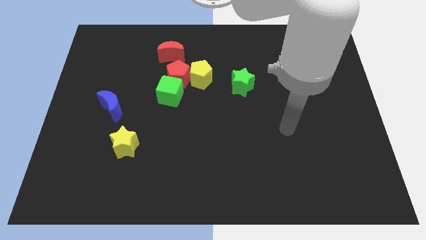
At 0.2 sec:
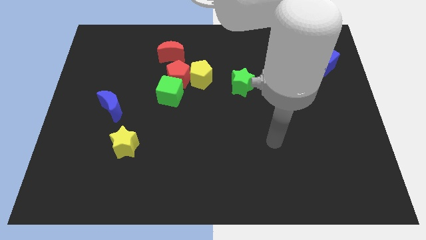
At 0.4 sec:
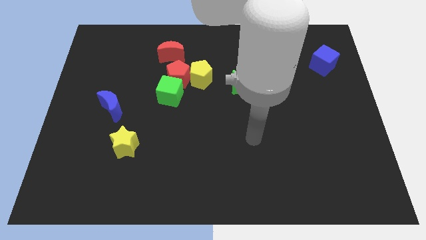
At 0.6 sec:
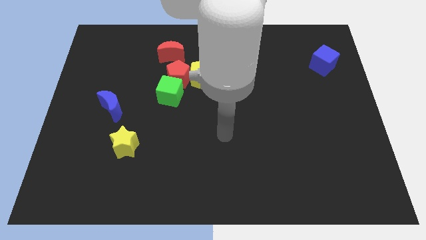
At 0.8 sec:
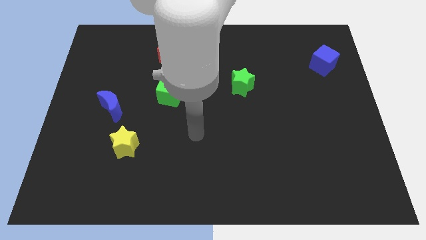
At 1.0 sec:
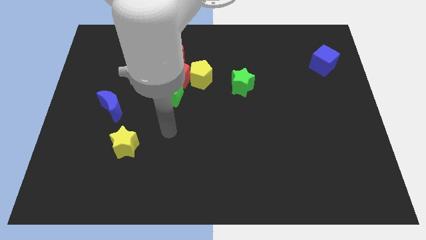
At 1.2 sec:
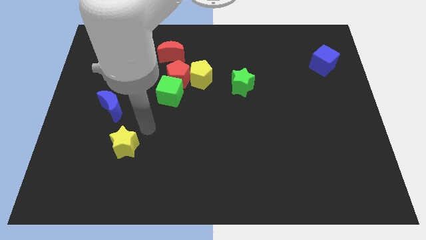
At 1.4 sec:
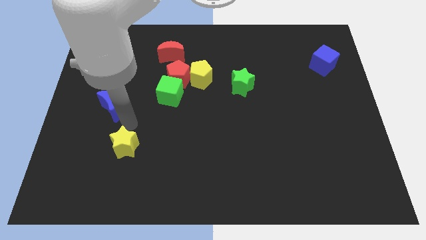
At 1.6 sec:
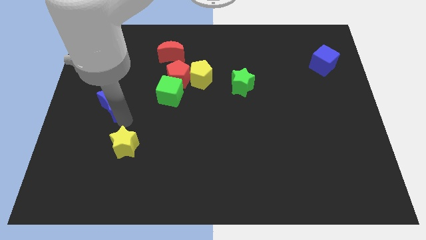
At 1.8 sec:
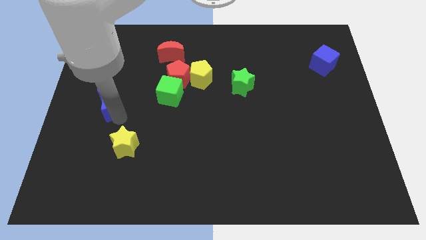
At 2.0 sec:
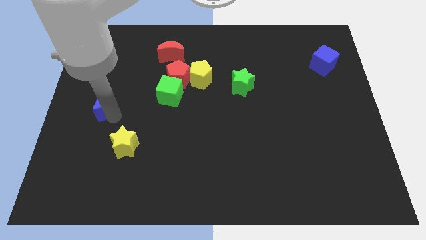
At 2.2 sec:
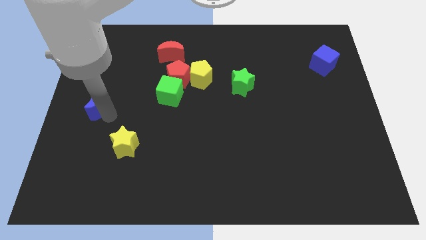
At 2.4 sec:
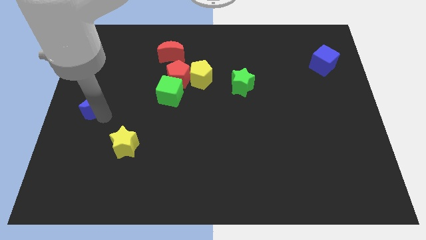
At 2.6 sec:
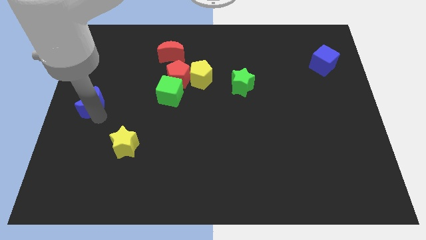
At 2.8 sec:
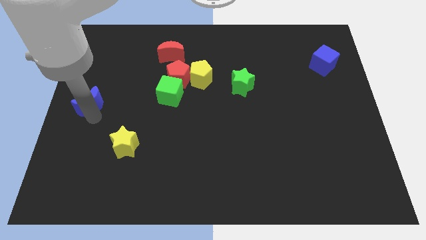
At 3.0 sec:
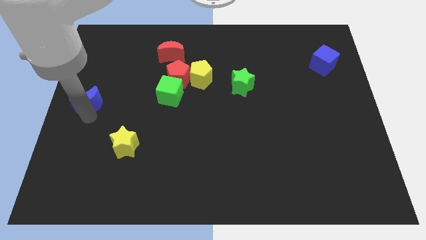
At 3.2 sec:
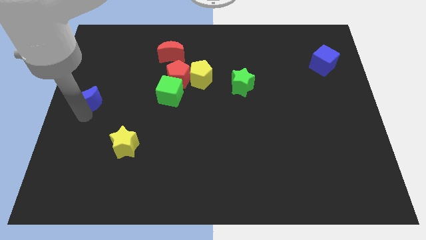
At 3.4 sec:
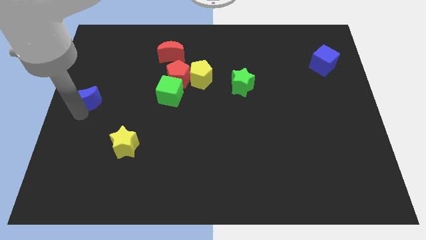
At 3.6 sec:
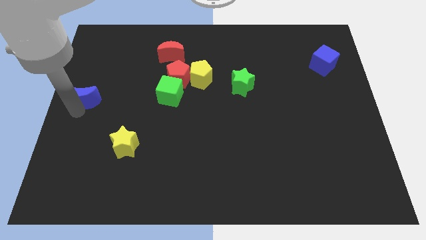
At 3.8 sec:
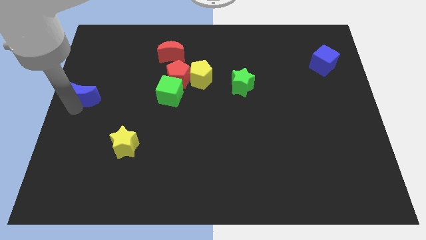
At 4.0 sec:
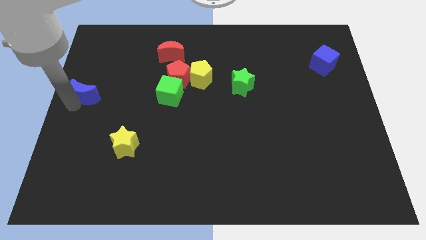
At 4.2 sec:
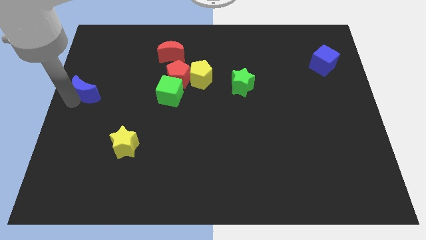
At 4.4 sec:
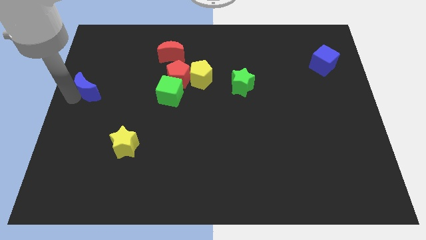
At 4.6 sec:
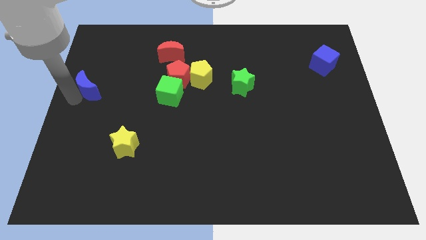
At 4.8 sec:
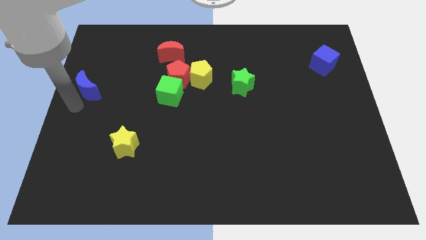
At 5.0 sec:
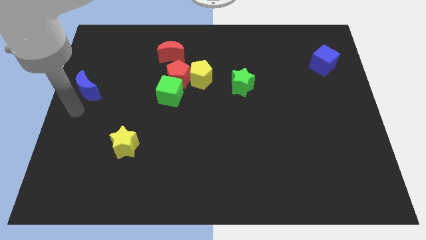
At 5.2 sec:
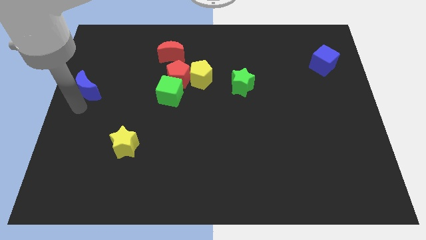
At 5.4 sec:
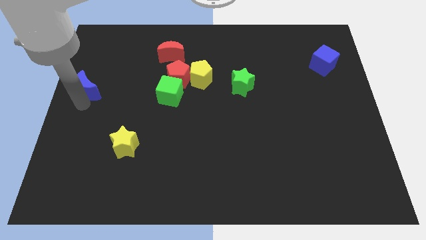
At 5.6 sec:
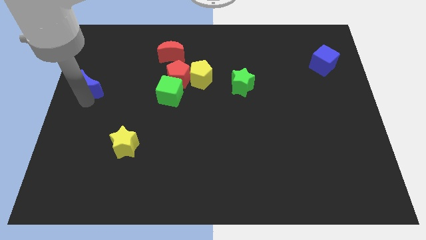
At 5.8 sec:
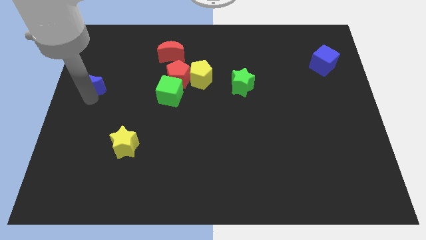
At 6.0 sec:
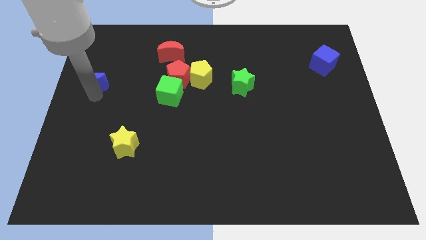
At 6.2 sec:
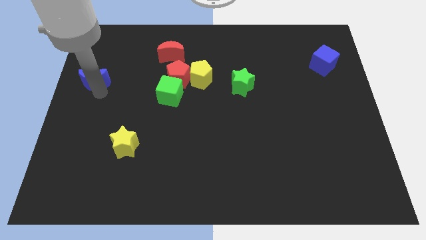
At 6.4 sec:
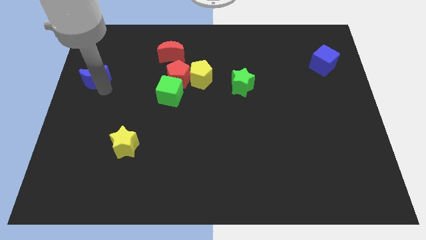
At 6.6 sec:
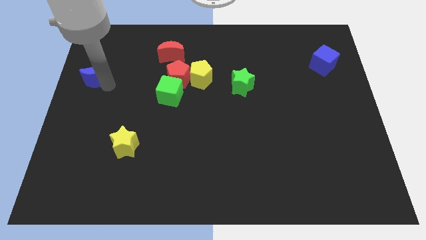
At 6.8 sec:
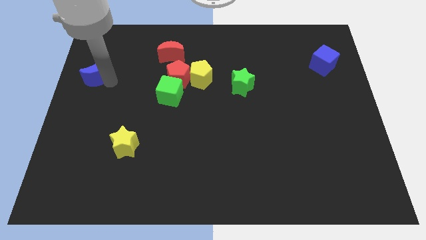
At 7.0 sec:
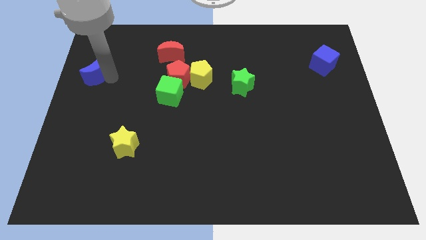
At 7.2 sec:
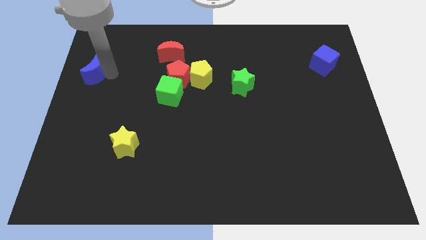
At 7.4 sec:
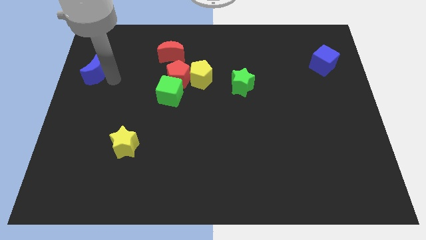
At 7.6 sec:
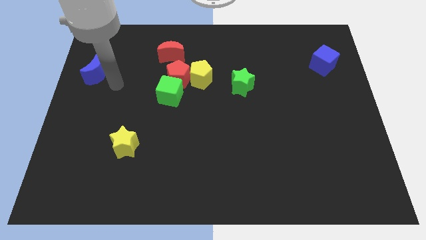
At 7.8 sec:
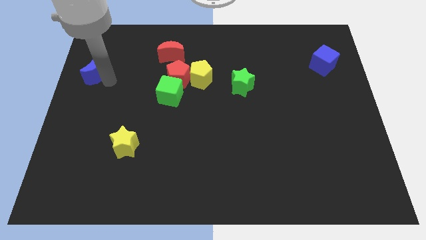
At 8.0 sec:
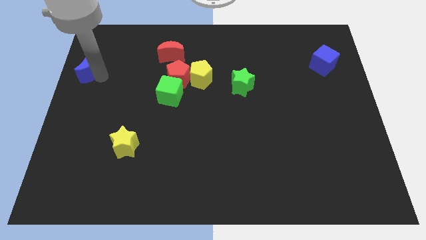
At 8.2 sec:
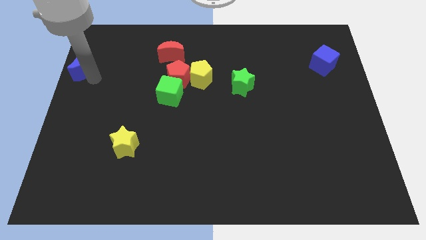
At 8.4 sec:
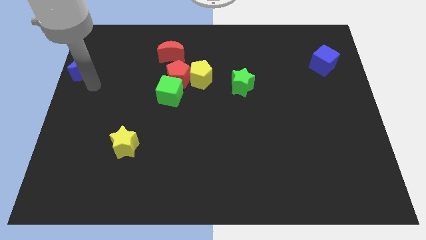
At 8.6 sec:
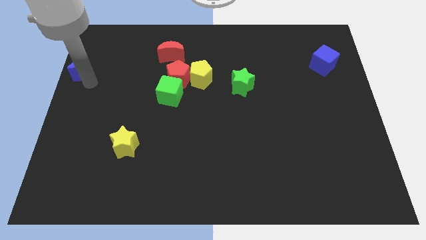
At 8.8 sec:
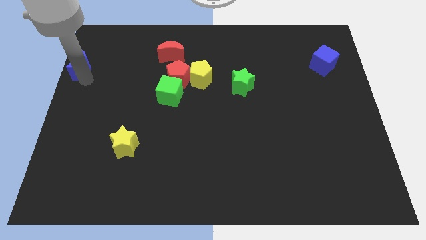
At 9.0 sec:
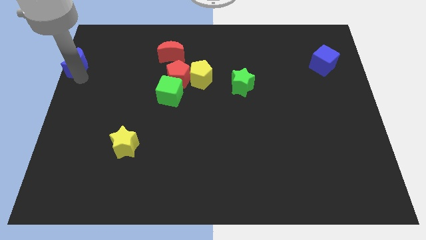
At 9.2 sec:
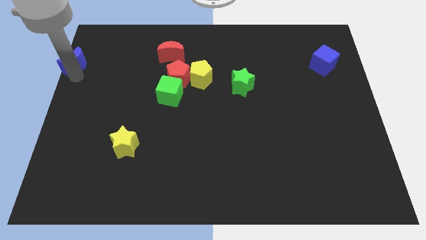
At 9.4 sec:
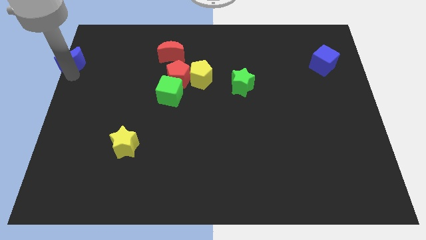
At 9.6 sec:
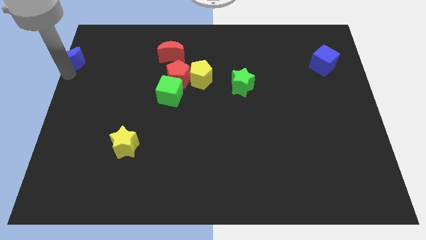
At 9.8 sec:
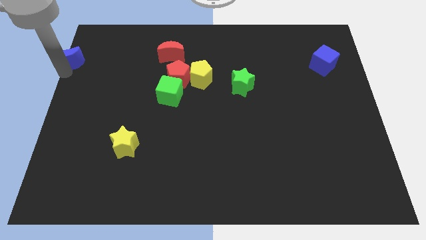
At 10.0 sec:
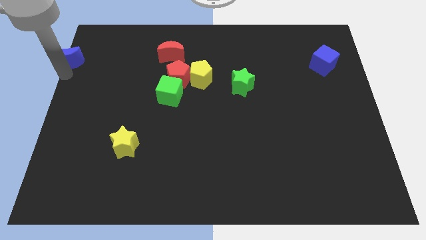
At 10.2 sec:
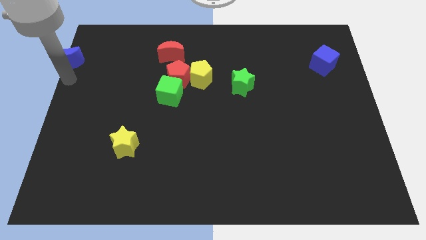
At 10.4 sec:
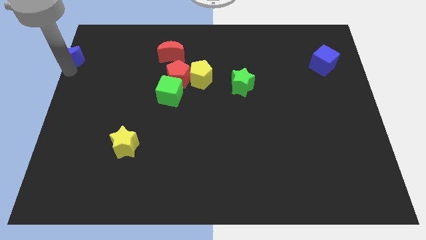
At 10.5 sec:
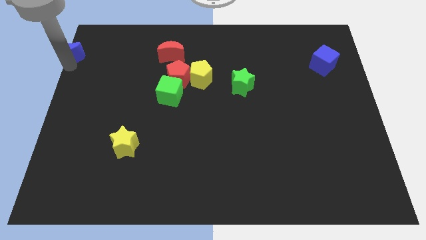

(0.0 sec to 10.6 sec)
push the blue moon to the top left of the board
